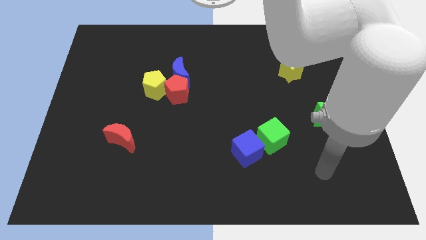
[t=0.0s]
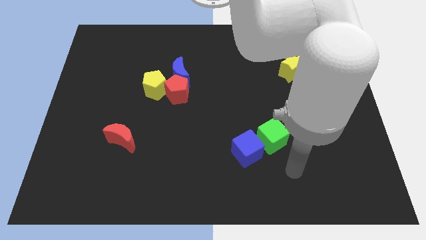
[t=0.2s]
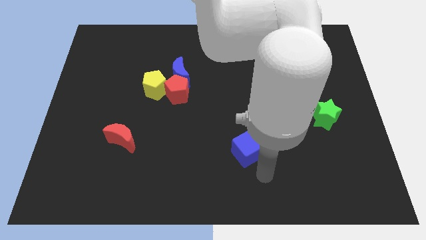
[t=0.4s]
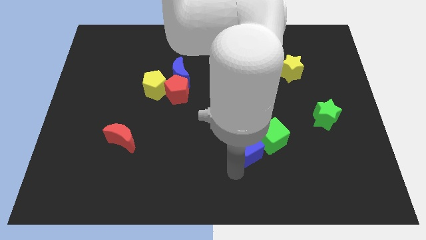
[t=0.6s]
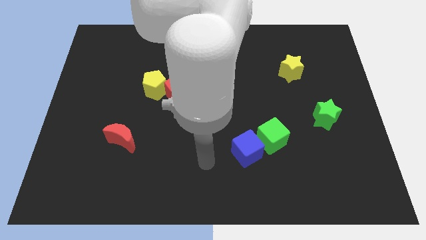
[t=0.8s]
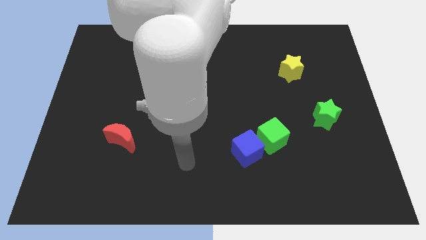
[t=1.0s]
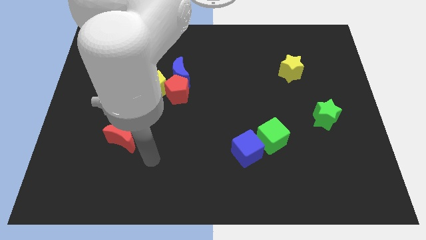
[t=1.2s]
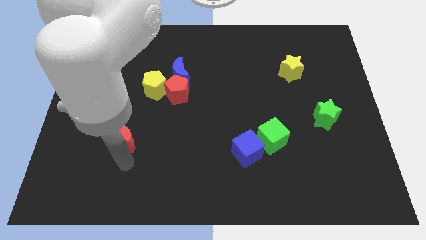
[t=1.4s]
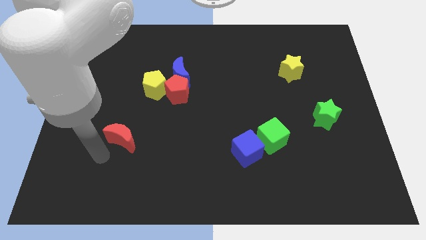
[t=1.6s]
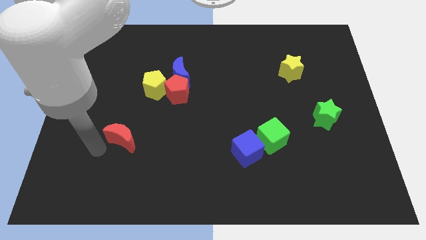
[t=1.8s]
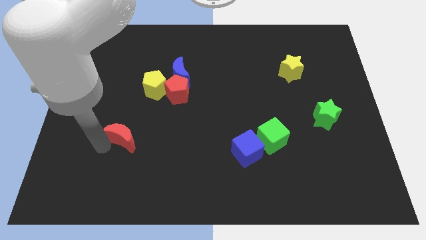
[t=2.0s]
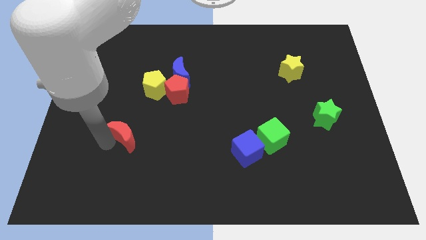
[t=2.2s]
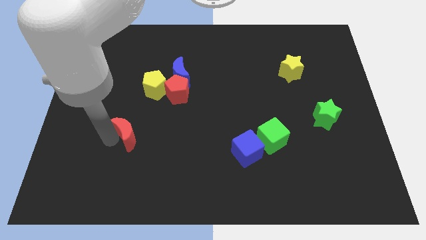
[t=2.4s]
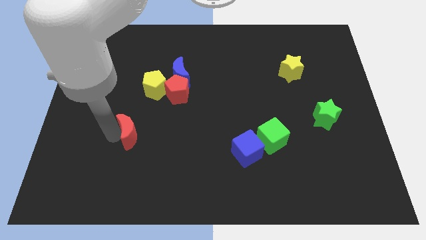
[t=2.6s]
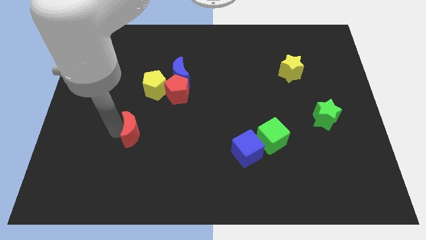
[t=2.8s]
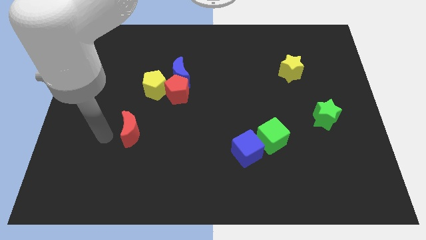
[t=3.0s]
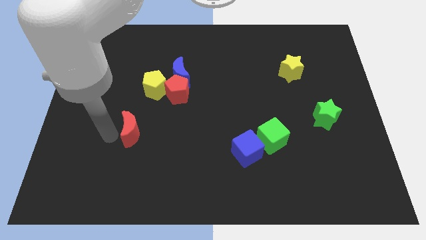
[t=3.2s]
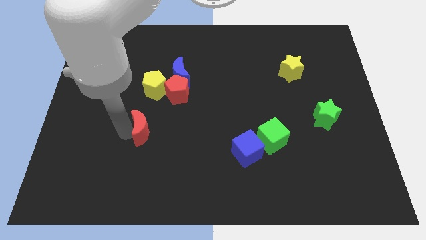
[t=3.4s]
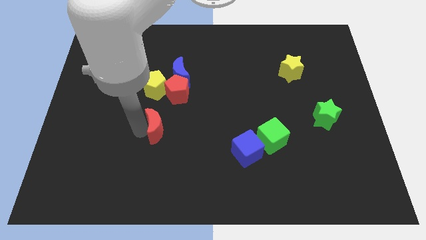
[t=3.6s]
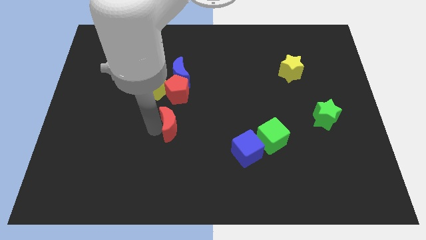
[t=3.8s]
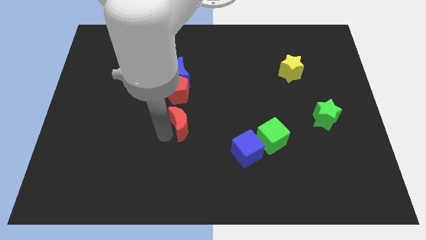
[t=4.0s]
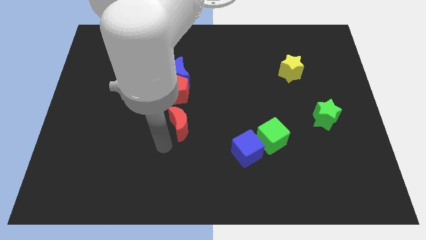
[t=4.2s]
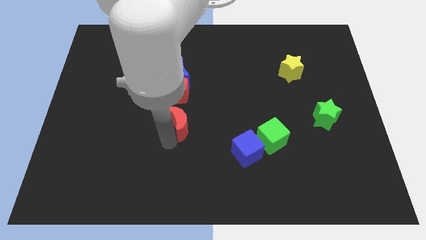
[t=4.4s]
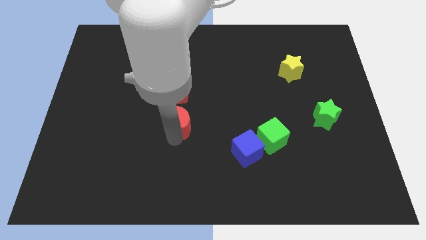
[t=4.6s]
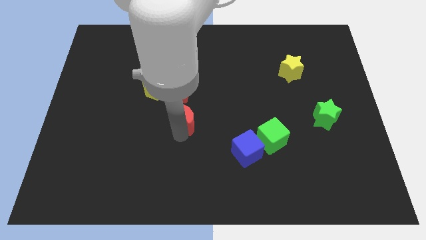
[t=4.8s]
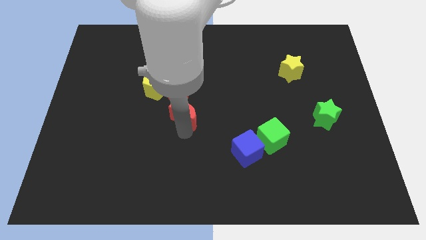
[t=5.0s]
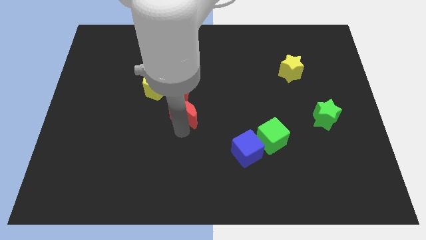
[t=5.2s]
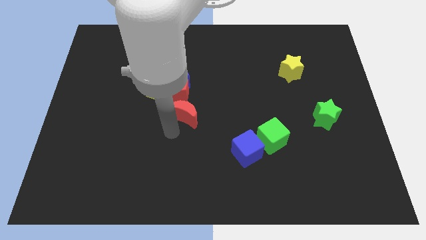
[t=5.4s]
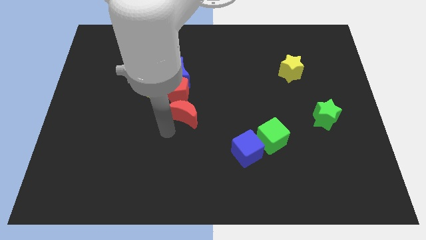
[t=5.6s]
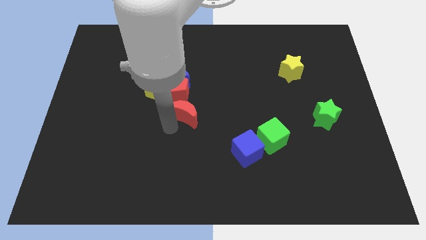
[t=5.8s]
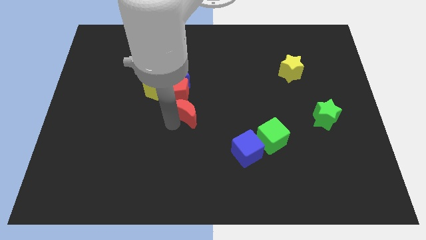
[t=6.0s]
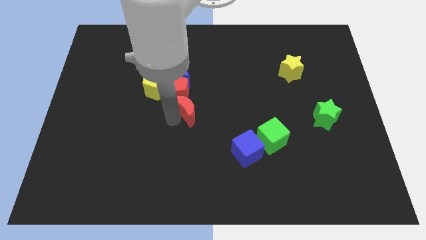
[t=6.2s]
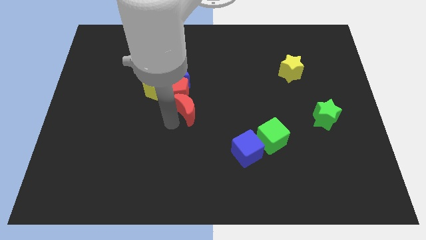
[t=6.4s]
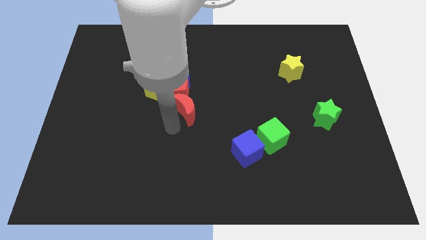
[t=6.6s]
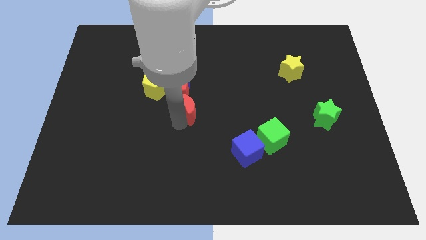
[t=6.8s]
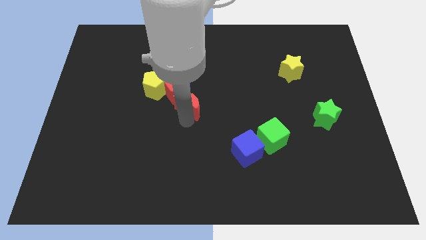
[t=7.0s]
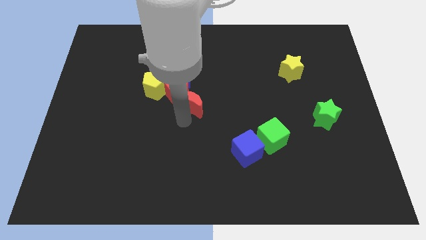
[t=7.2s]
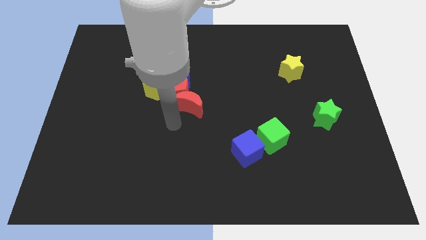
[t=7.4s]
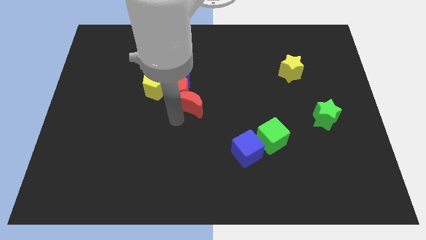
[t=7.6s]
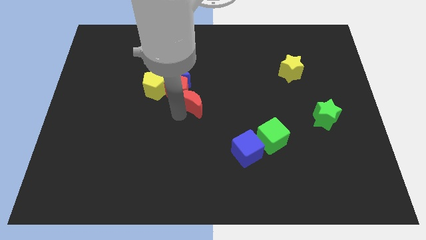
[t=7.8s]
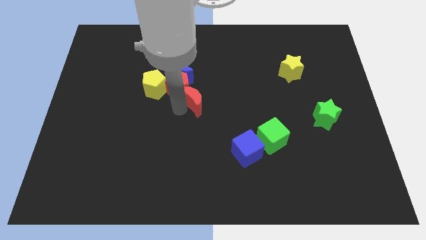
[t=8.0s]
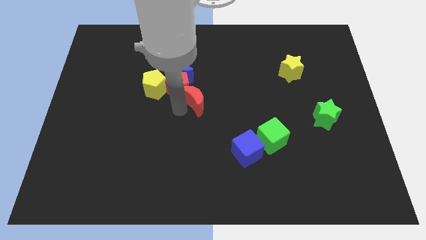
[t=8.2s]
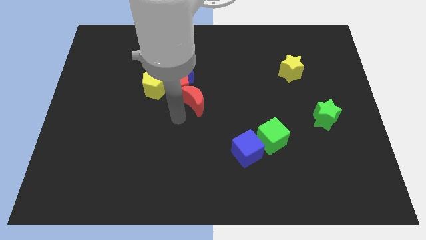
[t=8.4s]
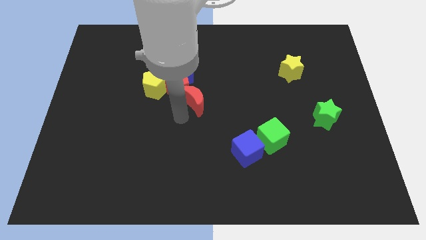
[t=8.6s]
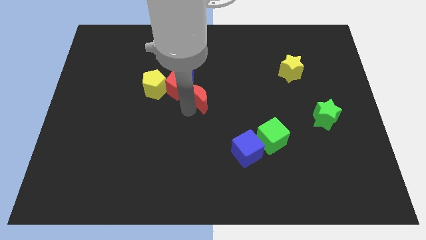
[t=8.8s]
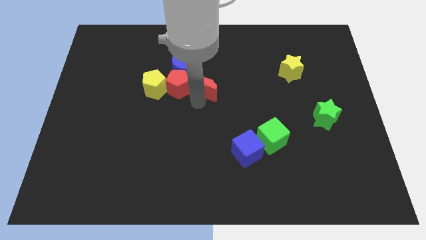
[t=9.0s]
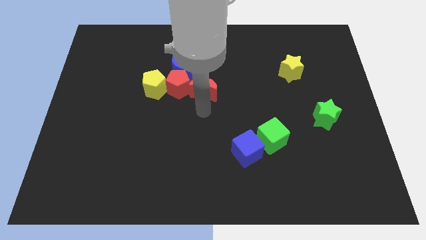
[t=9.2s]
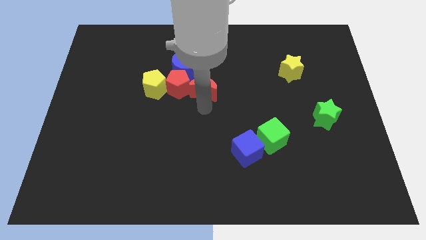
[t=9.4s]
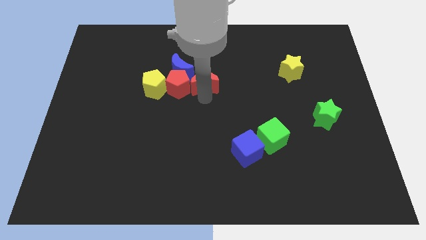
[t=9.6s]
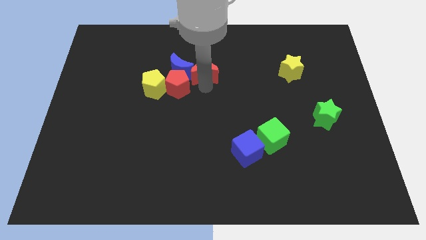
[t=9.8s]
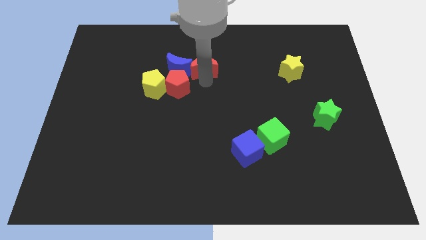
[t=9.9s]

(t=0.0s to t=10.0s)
slide the red moon to the top right of the blue moon

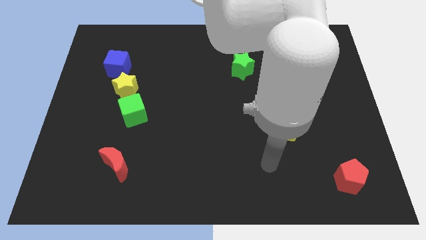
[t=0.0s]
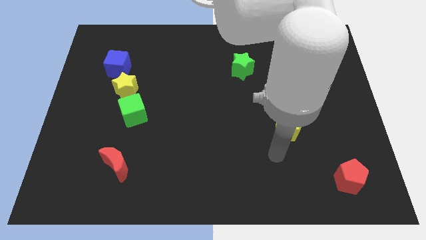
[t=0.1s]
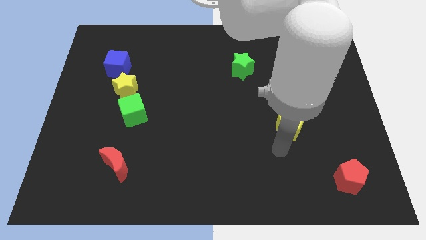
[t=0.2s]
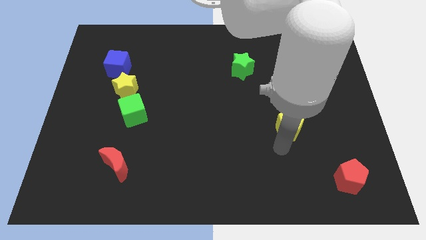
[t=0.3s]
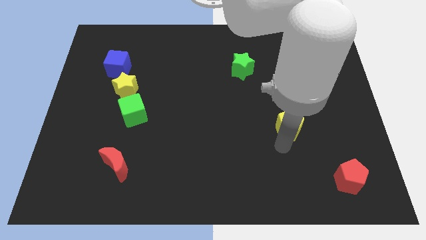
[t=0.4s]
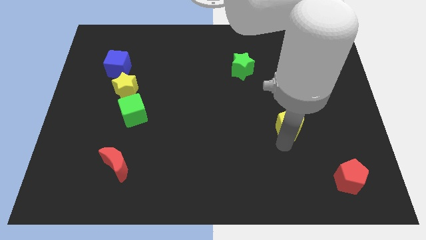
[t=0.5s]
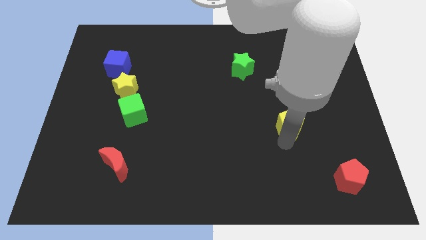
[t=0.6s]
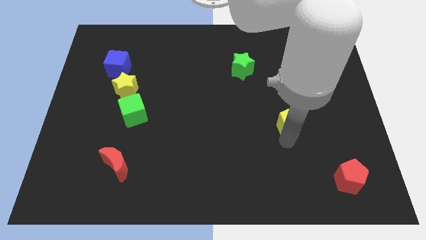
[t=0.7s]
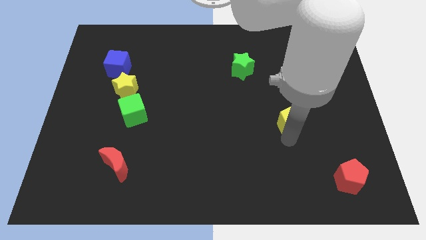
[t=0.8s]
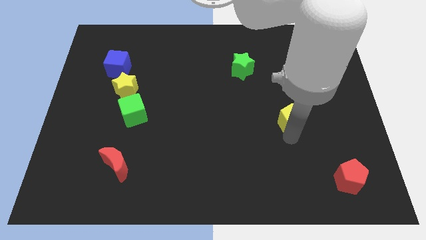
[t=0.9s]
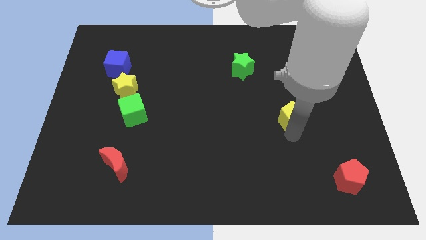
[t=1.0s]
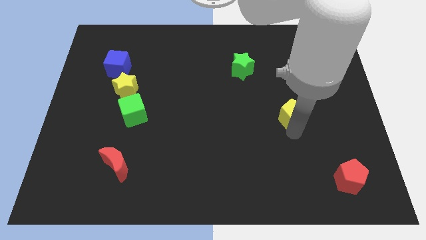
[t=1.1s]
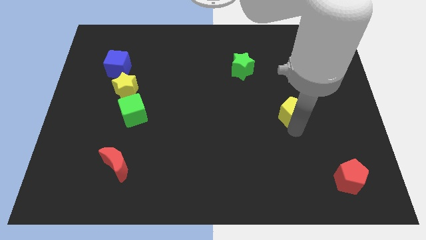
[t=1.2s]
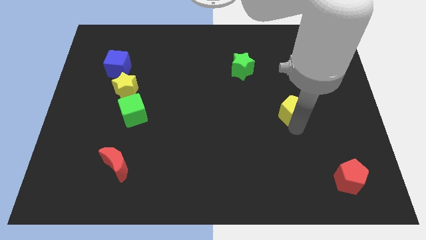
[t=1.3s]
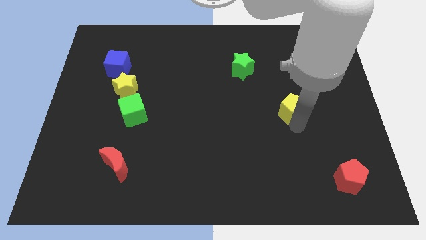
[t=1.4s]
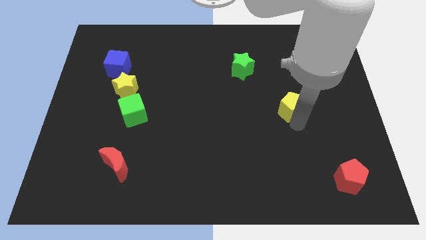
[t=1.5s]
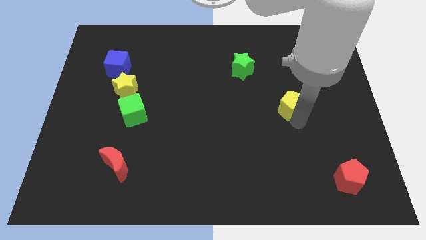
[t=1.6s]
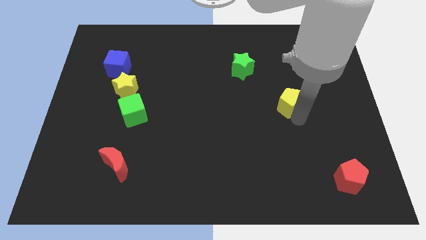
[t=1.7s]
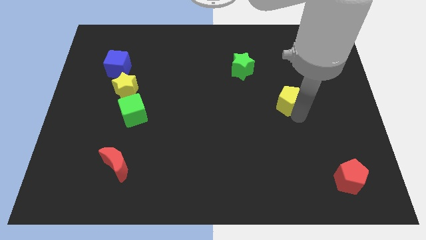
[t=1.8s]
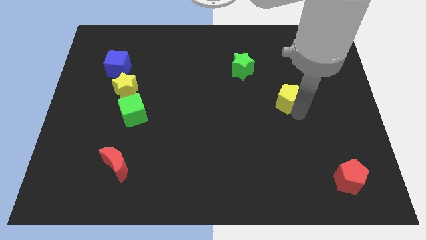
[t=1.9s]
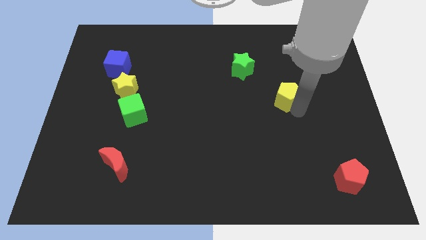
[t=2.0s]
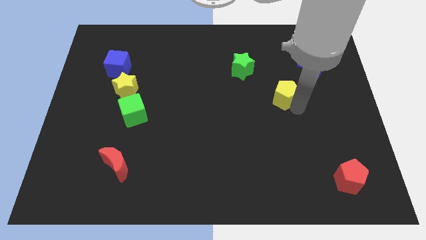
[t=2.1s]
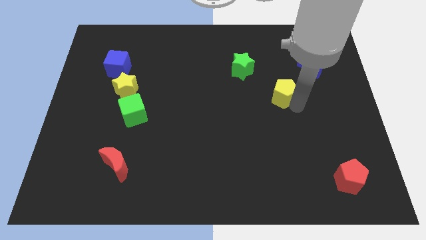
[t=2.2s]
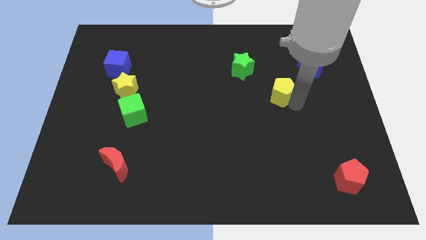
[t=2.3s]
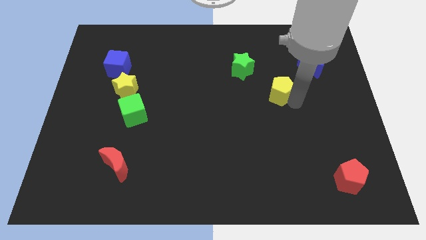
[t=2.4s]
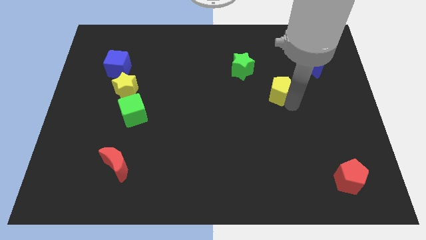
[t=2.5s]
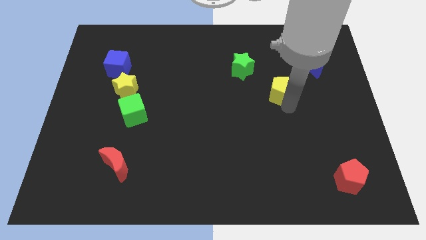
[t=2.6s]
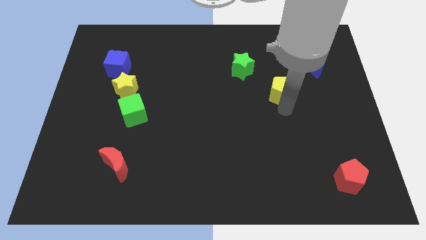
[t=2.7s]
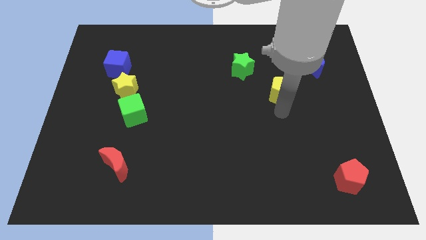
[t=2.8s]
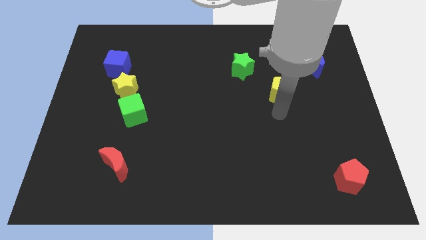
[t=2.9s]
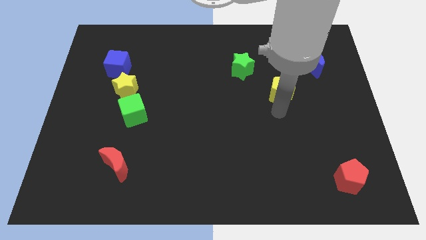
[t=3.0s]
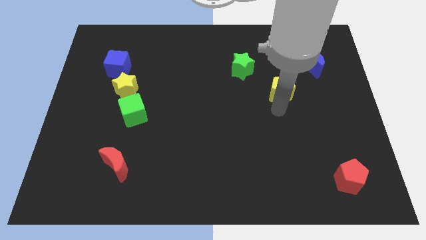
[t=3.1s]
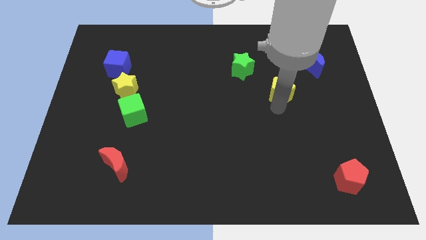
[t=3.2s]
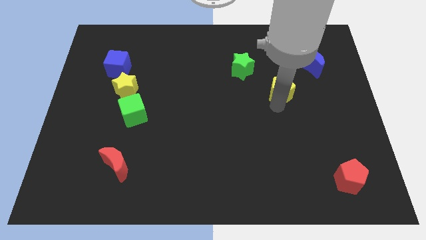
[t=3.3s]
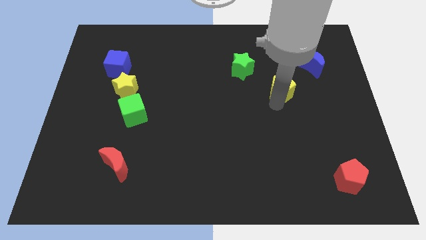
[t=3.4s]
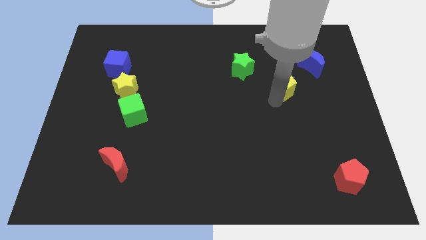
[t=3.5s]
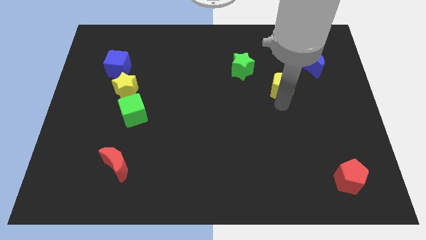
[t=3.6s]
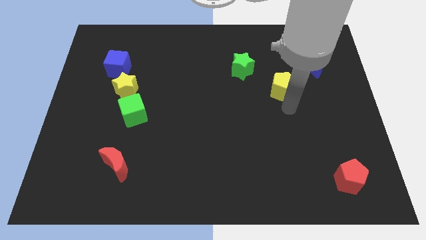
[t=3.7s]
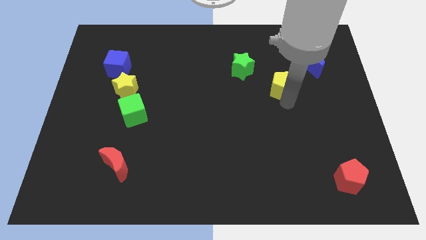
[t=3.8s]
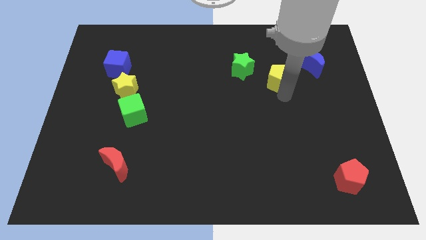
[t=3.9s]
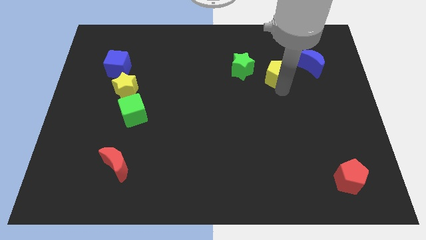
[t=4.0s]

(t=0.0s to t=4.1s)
slide the yellow pentagon just left of the blue moon
